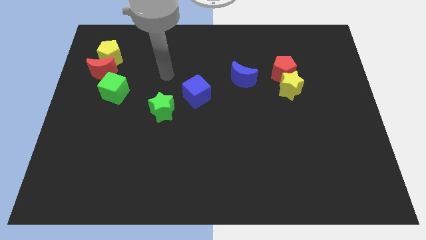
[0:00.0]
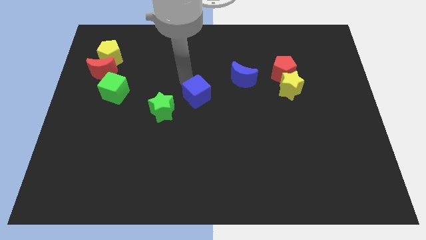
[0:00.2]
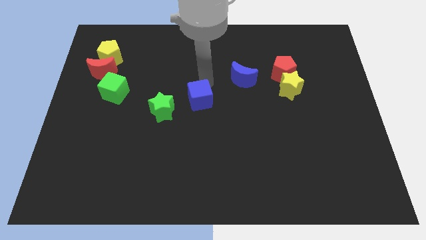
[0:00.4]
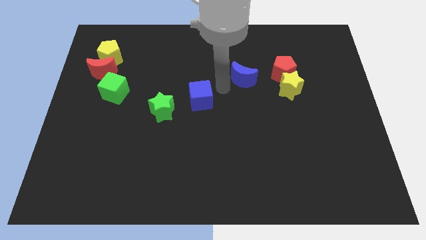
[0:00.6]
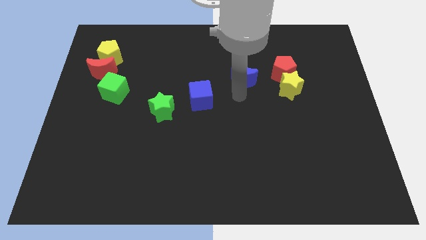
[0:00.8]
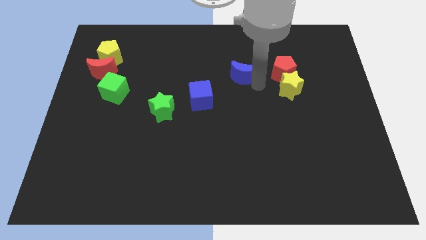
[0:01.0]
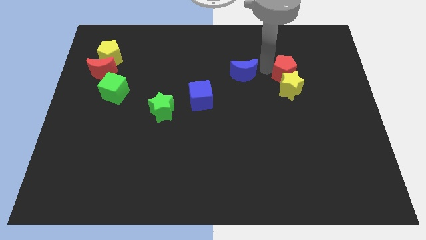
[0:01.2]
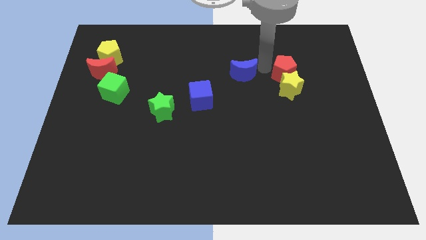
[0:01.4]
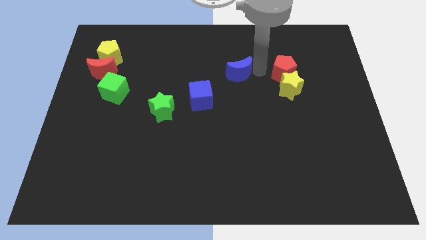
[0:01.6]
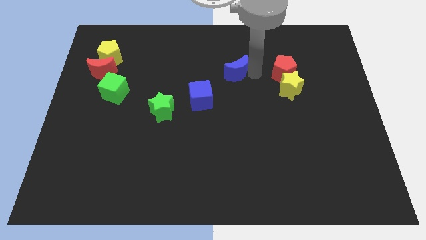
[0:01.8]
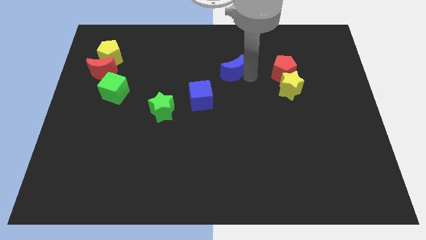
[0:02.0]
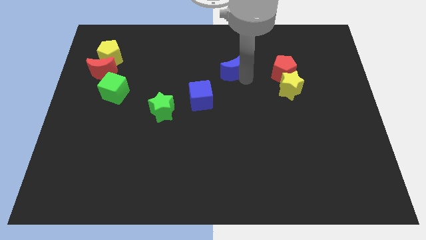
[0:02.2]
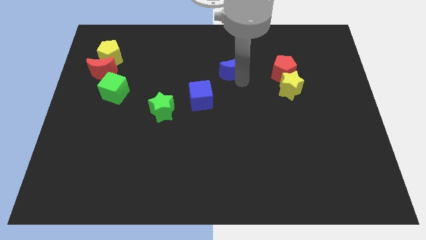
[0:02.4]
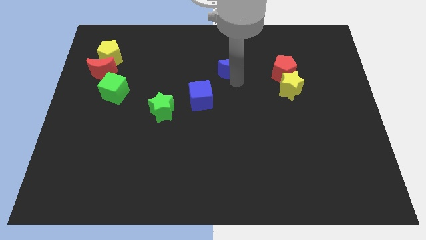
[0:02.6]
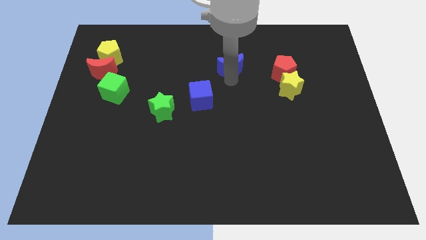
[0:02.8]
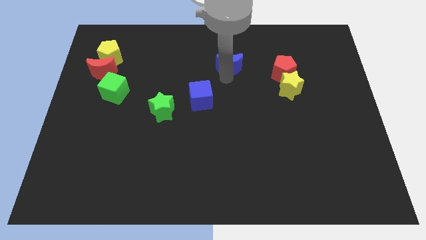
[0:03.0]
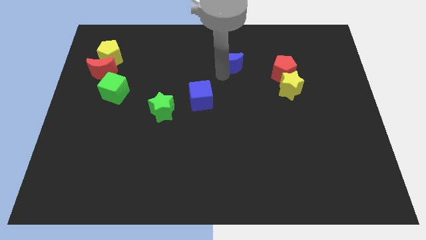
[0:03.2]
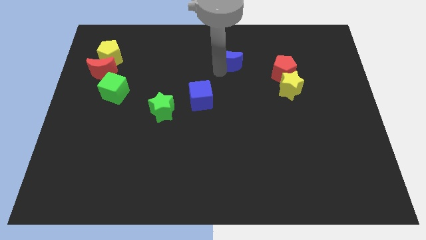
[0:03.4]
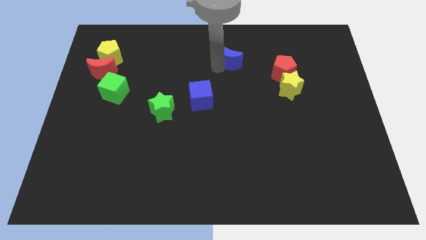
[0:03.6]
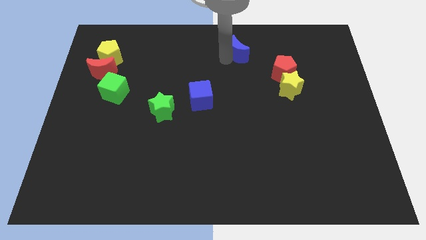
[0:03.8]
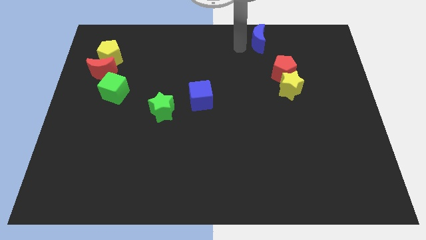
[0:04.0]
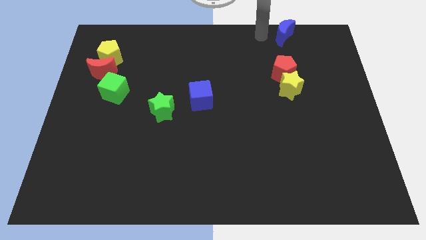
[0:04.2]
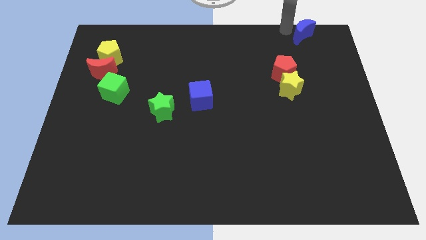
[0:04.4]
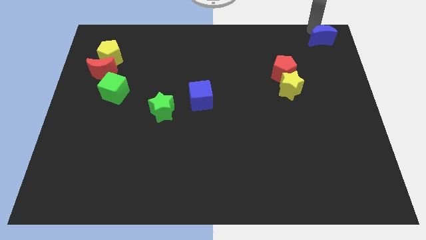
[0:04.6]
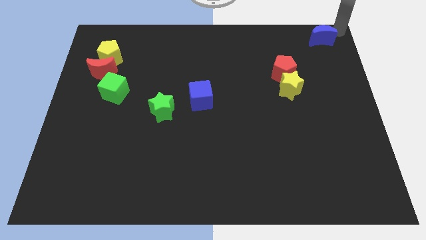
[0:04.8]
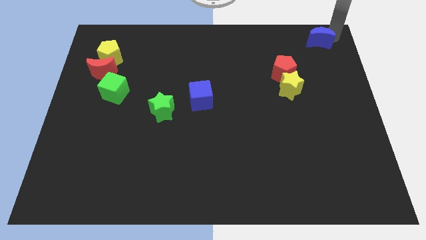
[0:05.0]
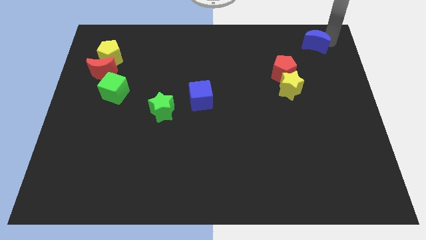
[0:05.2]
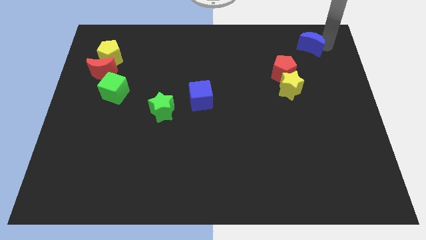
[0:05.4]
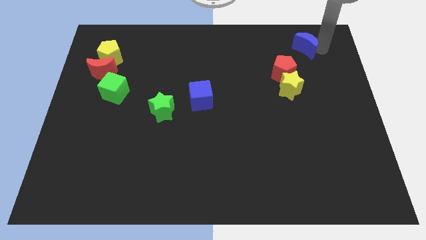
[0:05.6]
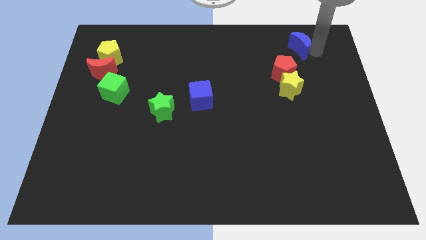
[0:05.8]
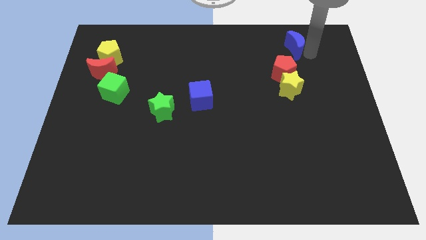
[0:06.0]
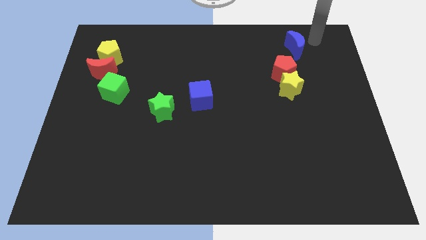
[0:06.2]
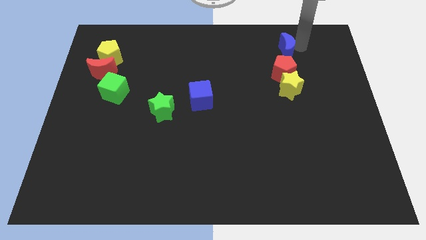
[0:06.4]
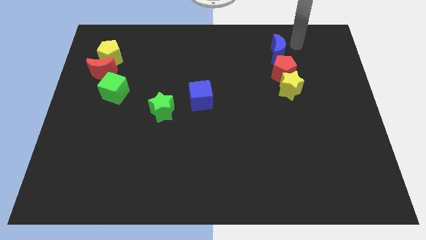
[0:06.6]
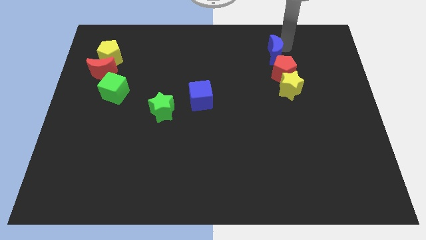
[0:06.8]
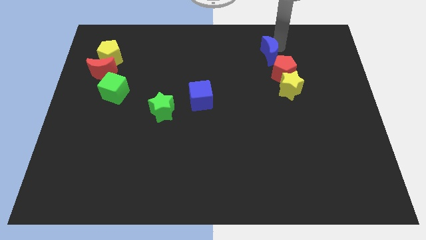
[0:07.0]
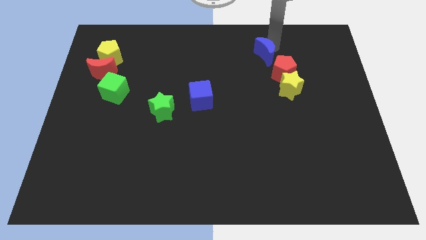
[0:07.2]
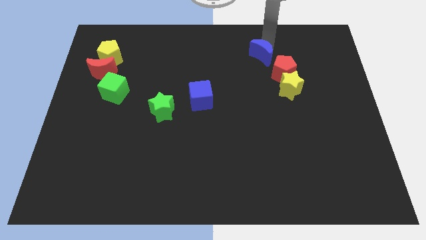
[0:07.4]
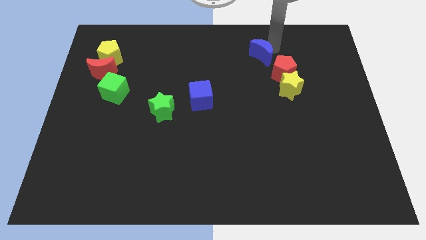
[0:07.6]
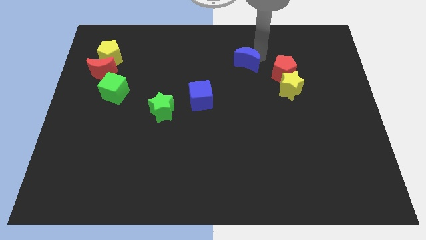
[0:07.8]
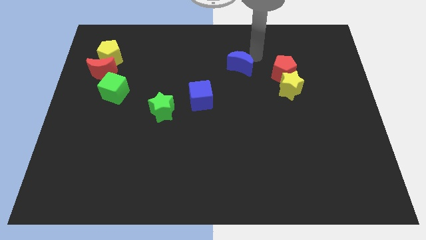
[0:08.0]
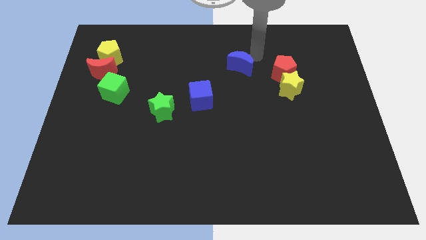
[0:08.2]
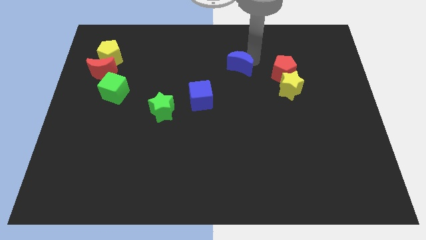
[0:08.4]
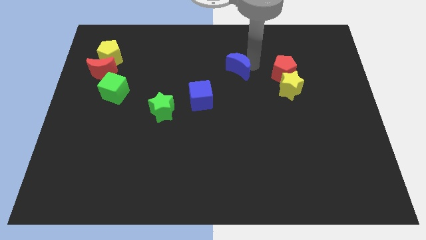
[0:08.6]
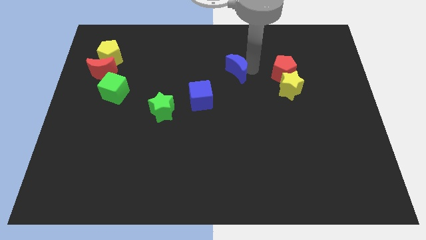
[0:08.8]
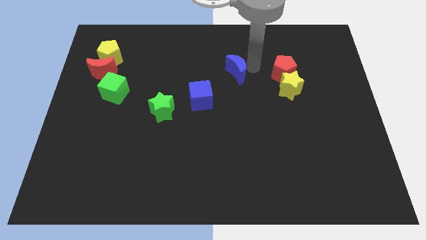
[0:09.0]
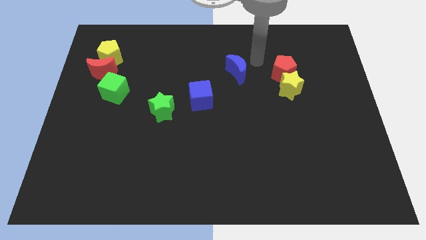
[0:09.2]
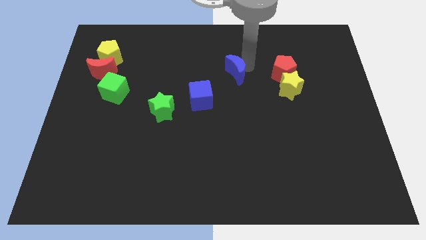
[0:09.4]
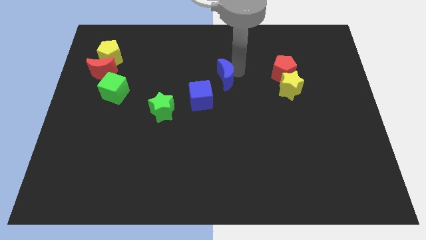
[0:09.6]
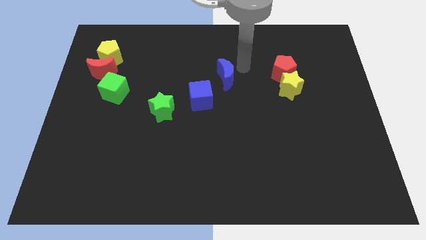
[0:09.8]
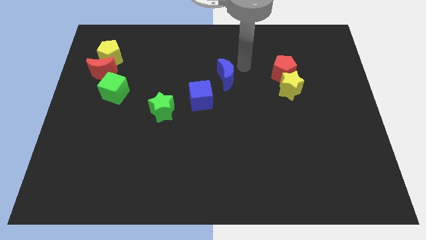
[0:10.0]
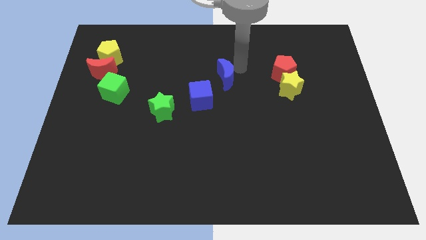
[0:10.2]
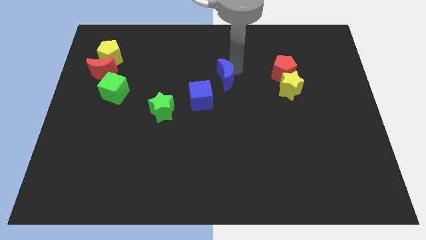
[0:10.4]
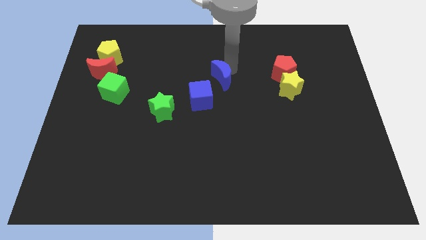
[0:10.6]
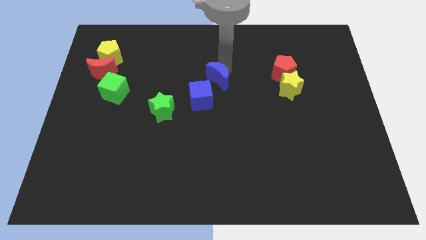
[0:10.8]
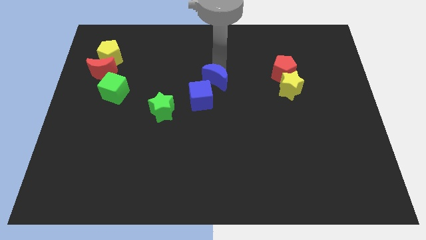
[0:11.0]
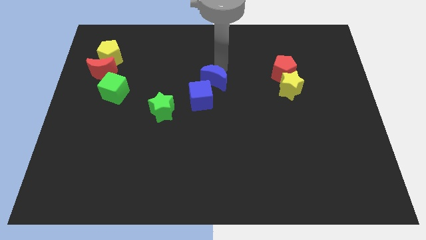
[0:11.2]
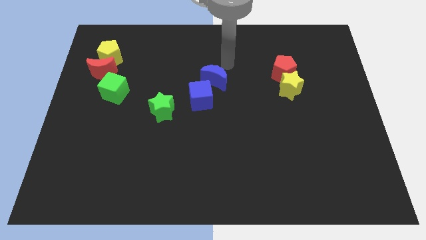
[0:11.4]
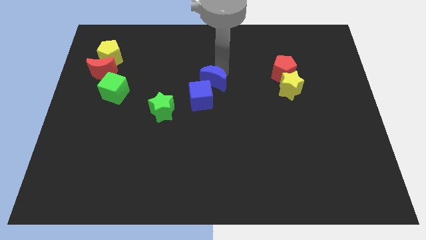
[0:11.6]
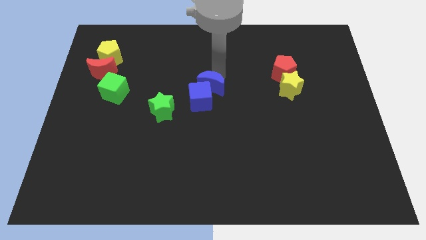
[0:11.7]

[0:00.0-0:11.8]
slide the blue moon close to the blue cube

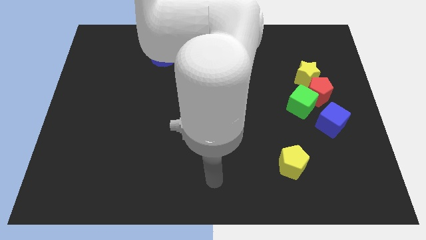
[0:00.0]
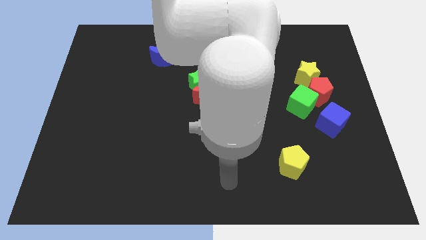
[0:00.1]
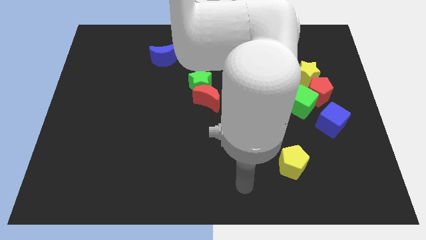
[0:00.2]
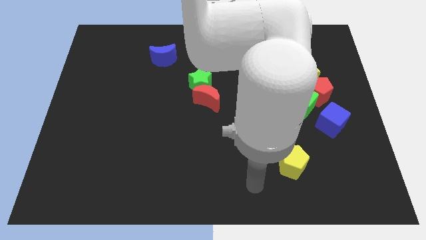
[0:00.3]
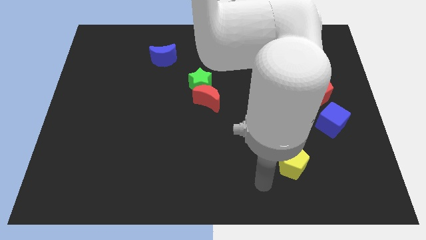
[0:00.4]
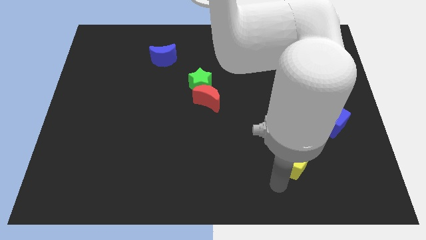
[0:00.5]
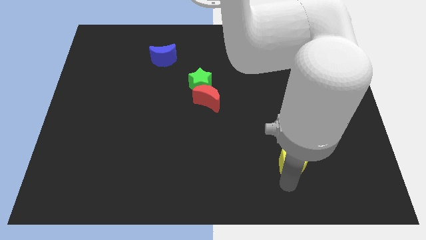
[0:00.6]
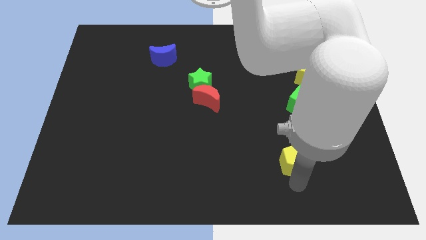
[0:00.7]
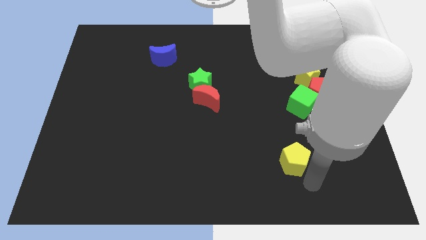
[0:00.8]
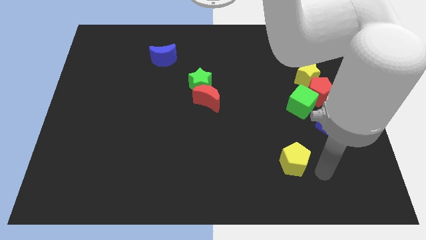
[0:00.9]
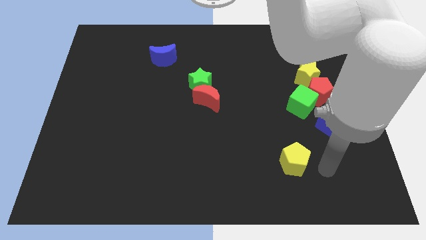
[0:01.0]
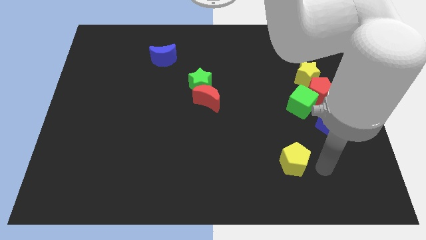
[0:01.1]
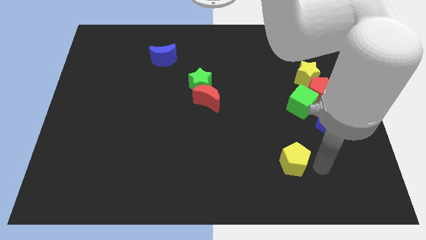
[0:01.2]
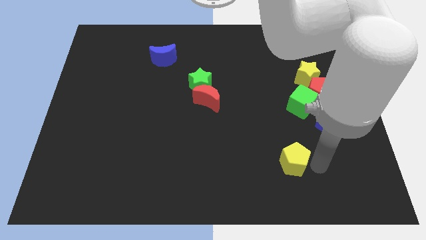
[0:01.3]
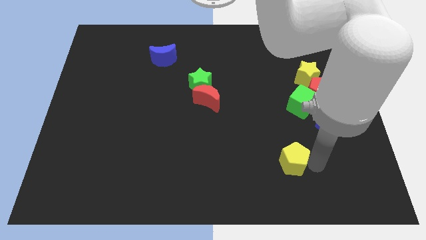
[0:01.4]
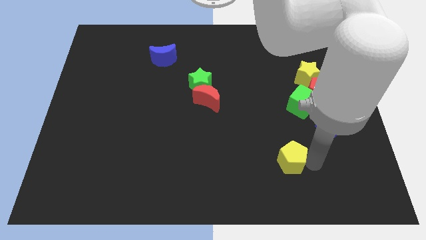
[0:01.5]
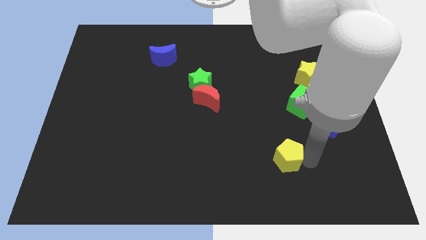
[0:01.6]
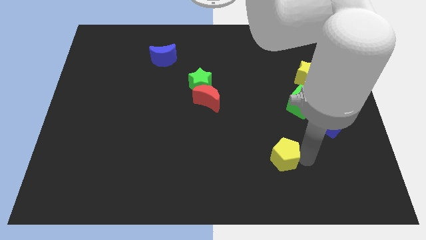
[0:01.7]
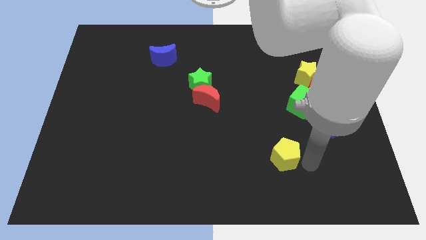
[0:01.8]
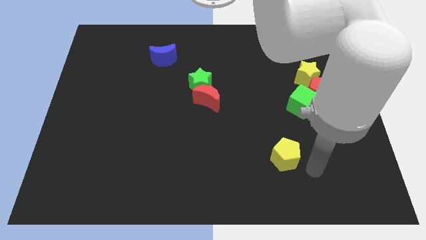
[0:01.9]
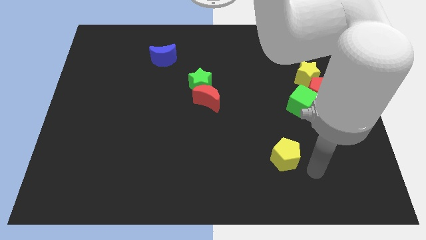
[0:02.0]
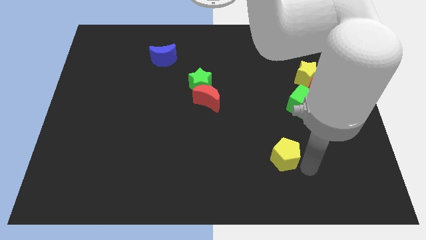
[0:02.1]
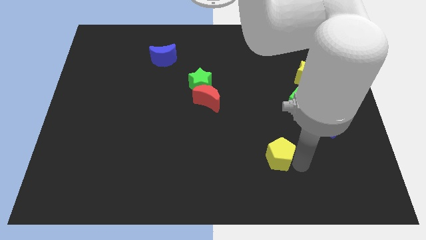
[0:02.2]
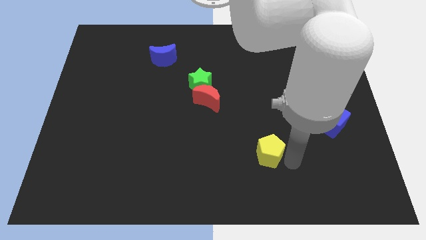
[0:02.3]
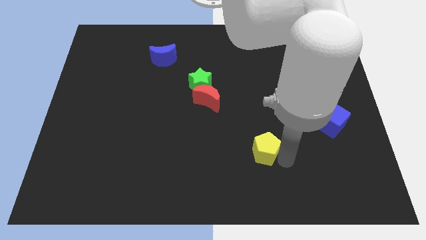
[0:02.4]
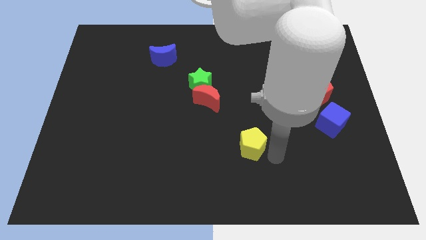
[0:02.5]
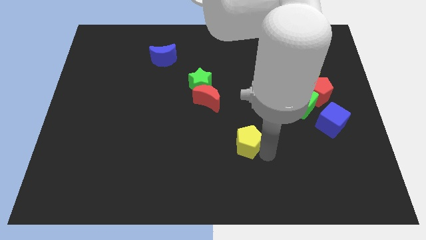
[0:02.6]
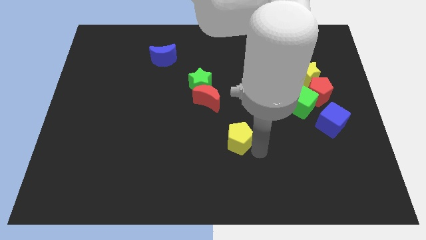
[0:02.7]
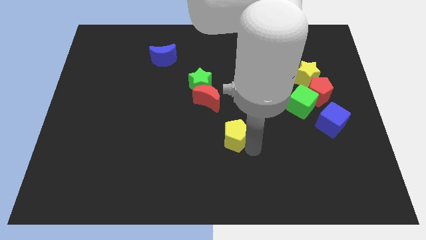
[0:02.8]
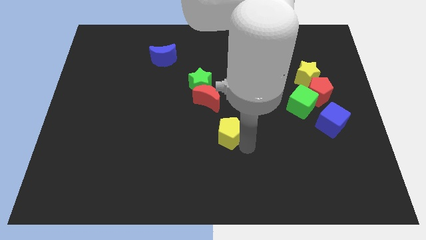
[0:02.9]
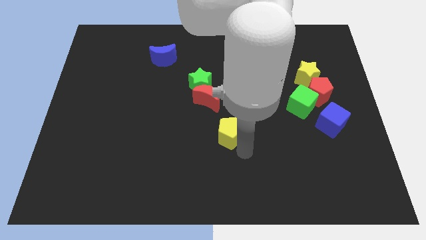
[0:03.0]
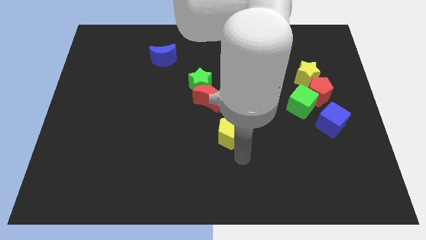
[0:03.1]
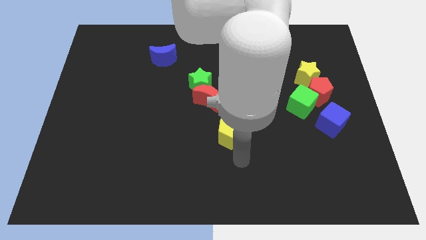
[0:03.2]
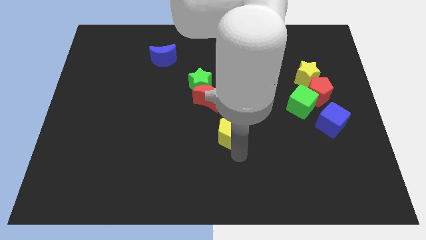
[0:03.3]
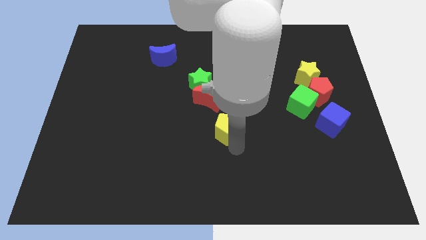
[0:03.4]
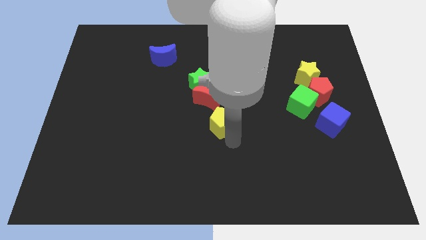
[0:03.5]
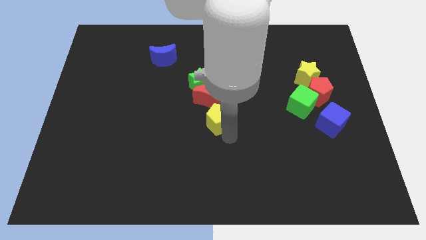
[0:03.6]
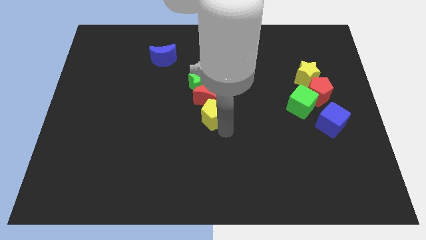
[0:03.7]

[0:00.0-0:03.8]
move the yellow pentagon to the red moon
